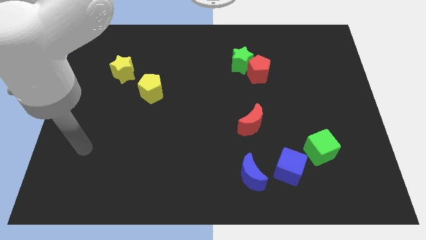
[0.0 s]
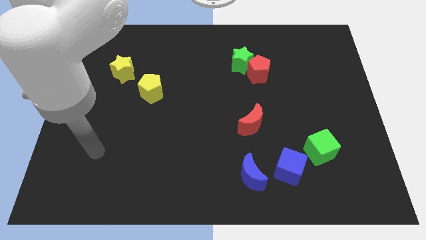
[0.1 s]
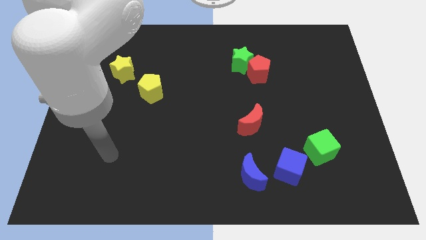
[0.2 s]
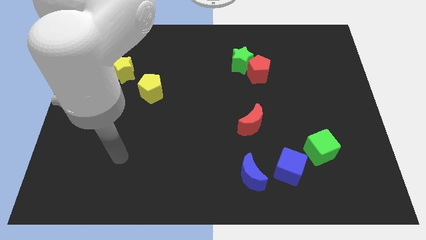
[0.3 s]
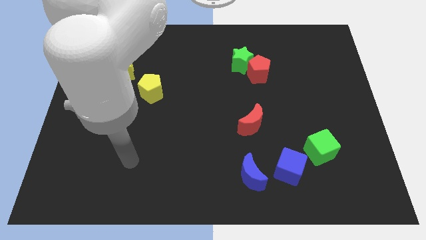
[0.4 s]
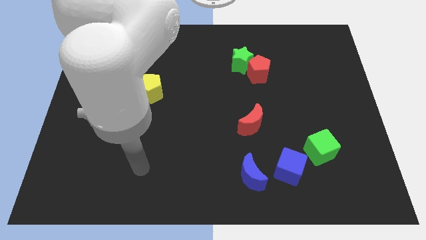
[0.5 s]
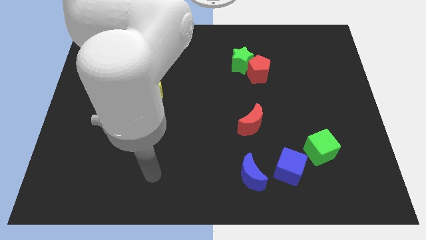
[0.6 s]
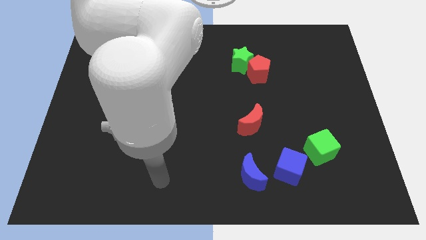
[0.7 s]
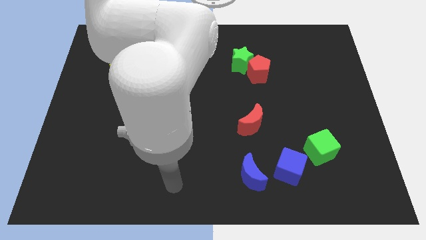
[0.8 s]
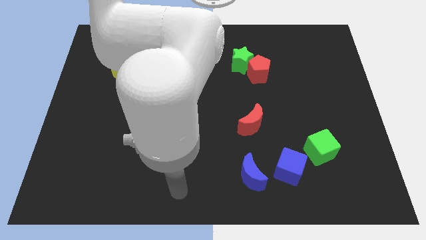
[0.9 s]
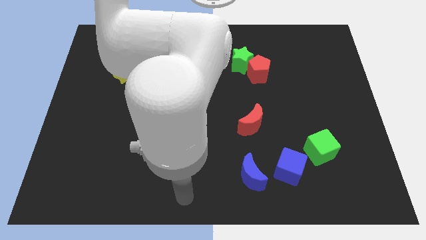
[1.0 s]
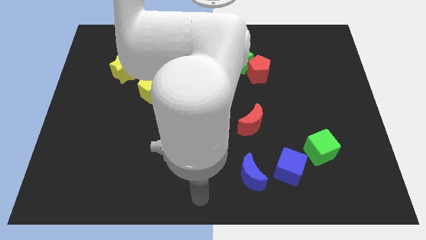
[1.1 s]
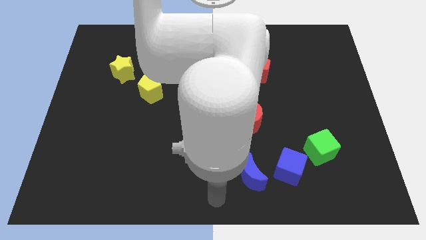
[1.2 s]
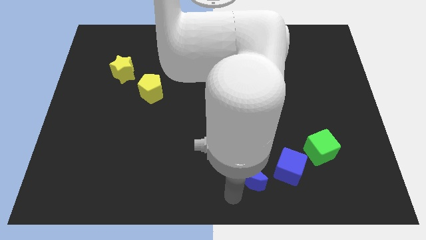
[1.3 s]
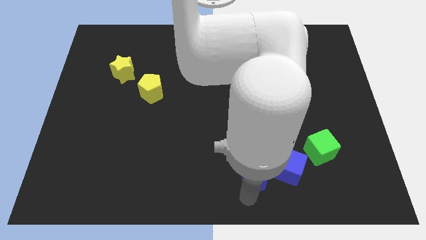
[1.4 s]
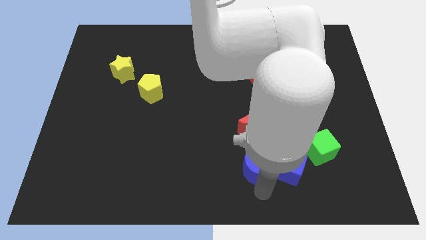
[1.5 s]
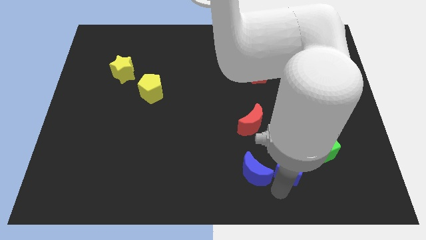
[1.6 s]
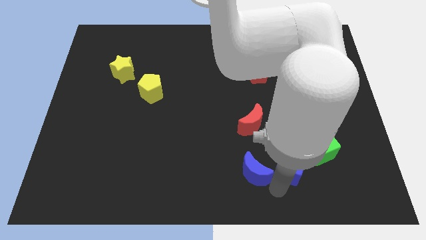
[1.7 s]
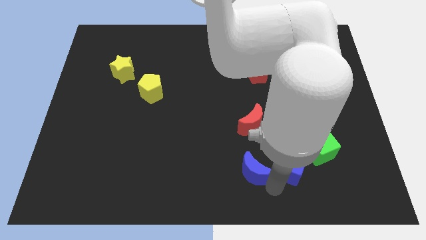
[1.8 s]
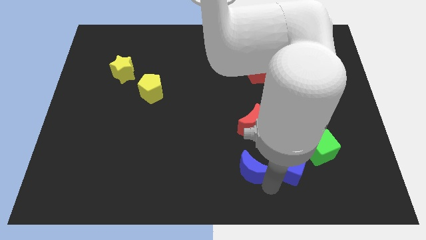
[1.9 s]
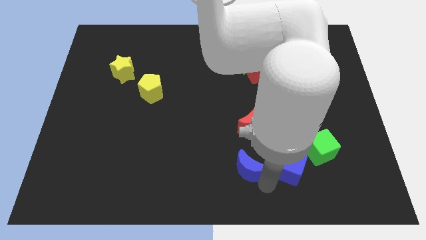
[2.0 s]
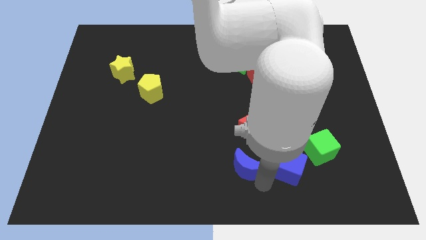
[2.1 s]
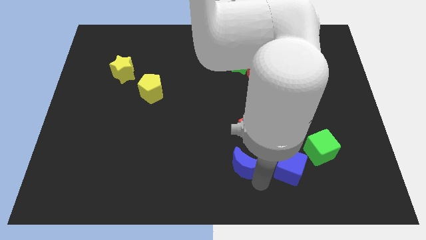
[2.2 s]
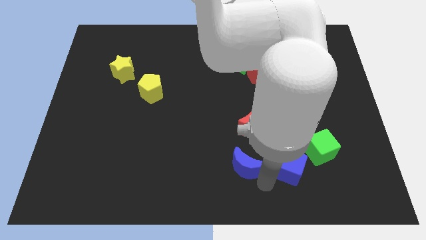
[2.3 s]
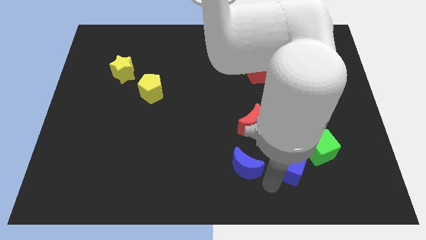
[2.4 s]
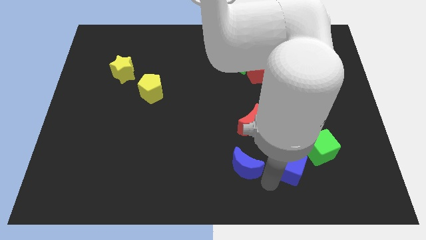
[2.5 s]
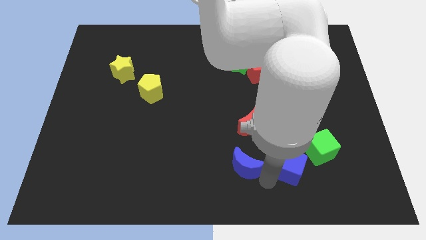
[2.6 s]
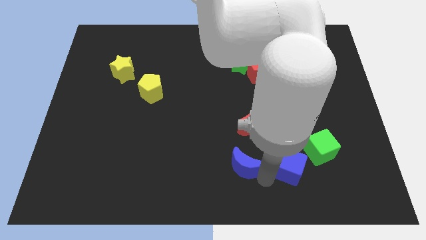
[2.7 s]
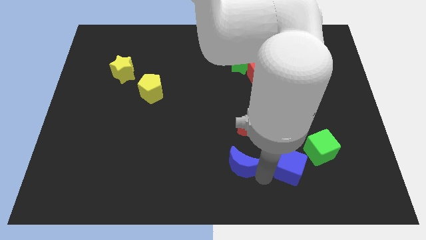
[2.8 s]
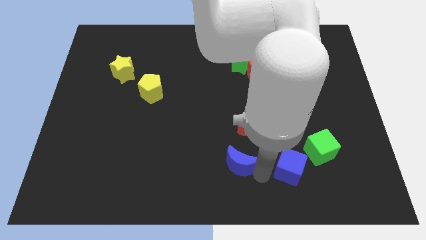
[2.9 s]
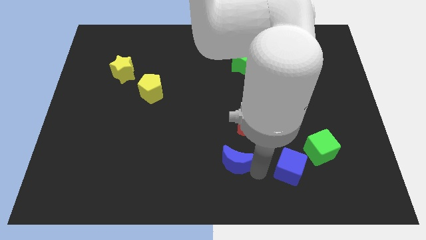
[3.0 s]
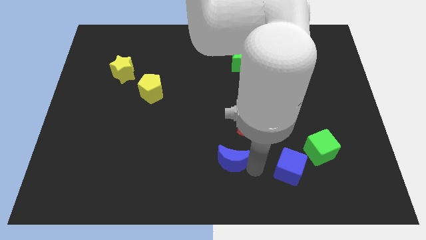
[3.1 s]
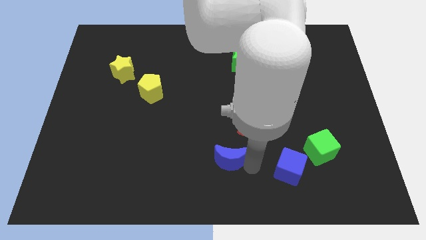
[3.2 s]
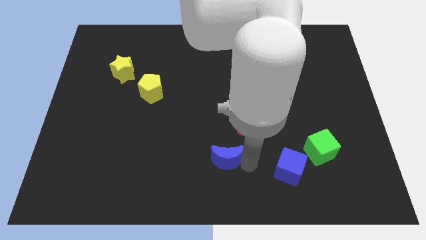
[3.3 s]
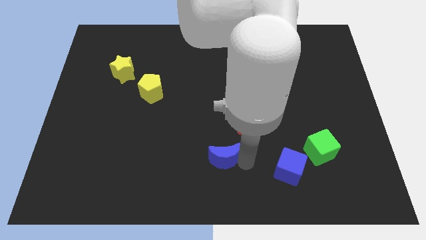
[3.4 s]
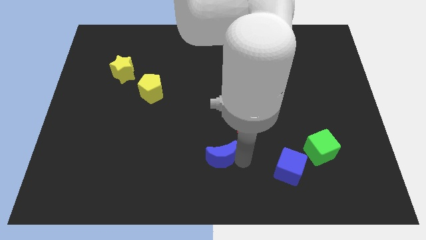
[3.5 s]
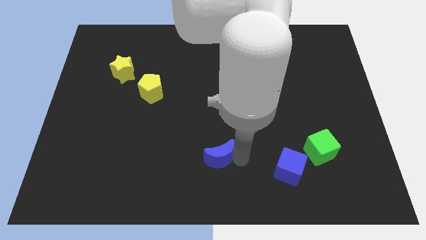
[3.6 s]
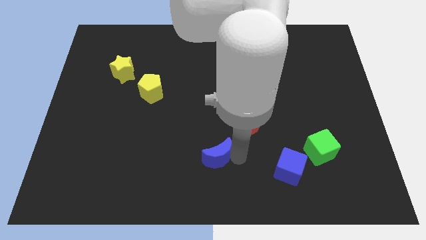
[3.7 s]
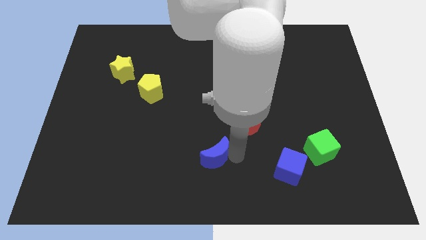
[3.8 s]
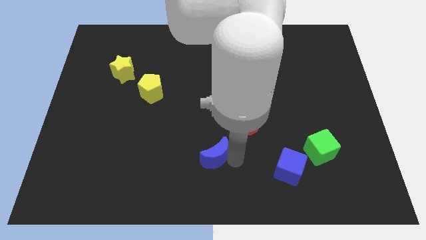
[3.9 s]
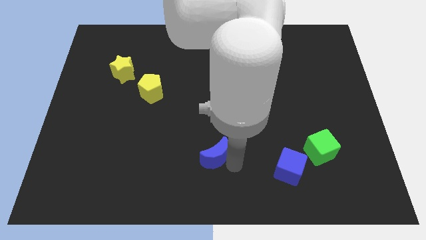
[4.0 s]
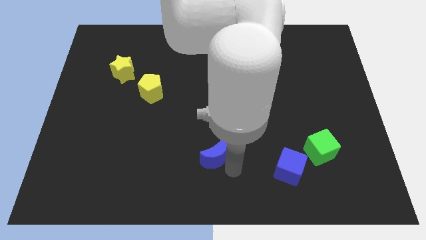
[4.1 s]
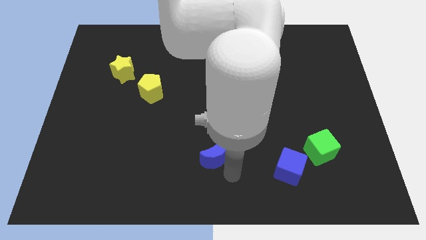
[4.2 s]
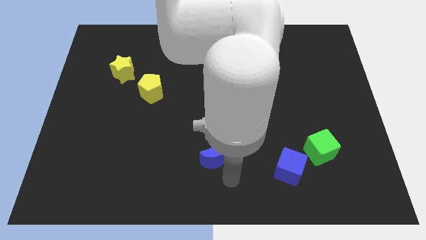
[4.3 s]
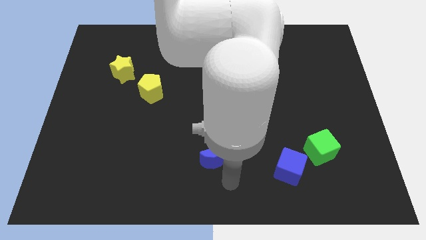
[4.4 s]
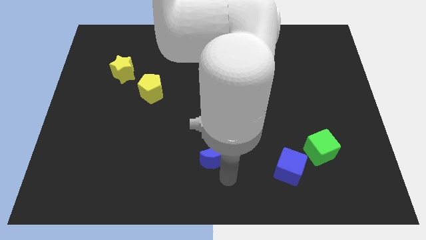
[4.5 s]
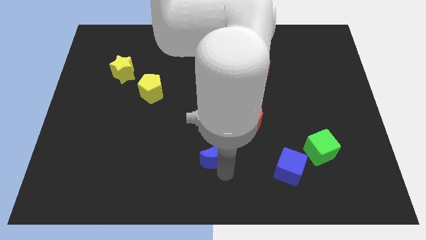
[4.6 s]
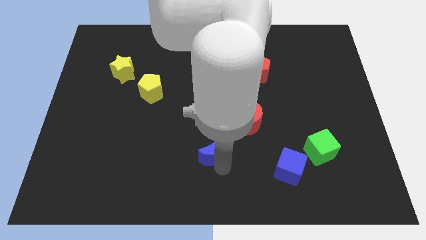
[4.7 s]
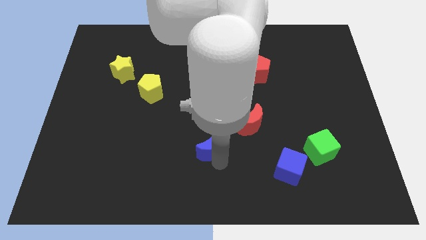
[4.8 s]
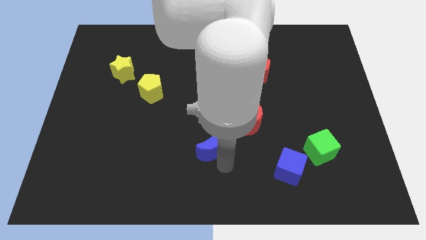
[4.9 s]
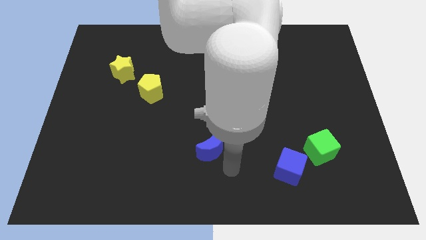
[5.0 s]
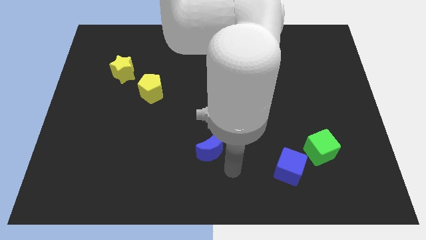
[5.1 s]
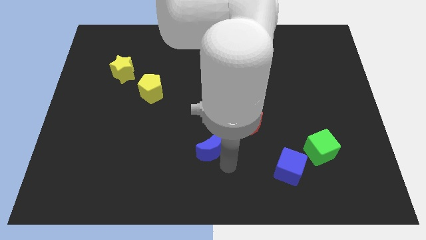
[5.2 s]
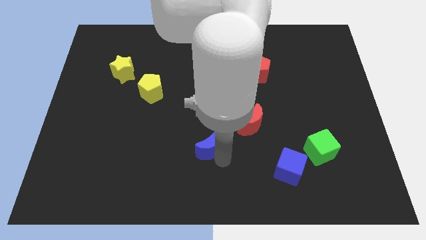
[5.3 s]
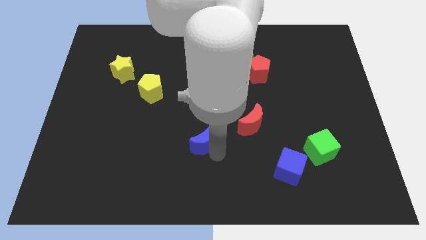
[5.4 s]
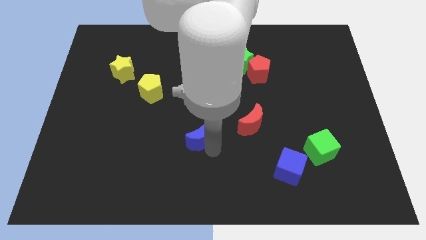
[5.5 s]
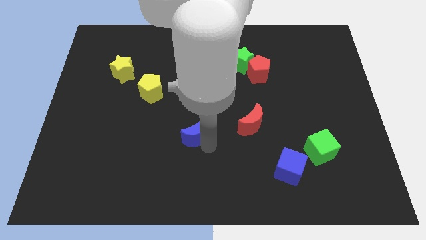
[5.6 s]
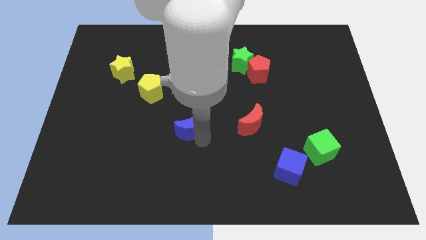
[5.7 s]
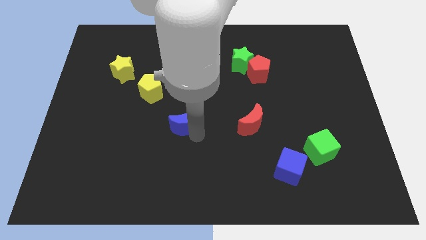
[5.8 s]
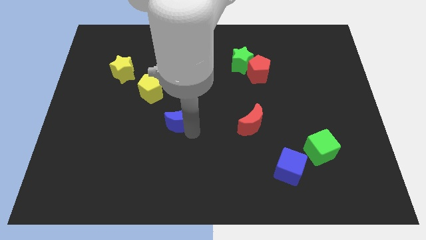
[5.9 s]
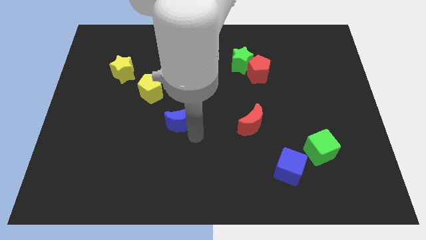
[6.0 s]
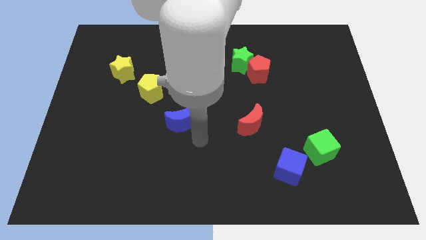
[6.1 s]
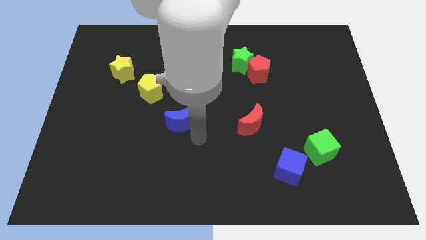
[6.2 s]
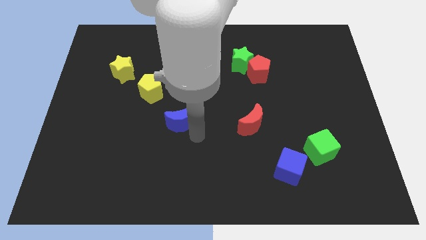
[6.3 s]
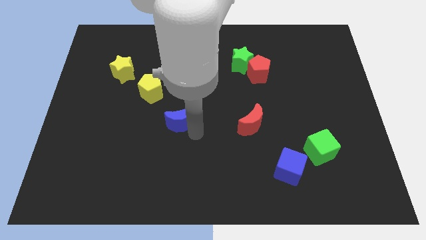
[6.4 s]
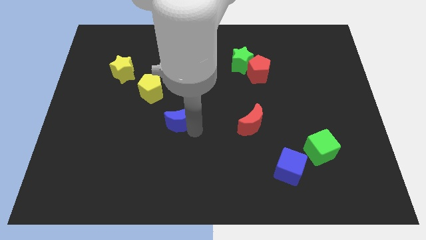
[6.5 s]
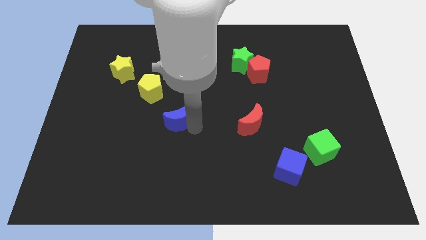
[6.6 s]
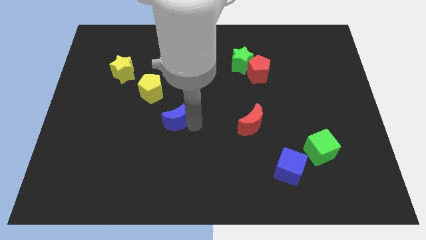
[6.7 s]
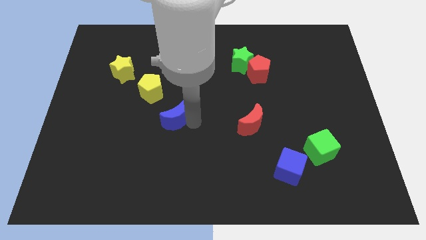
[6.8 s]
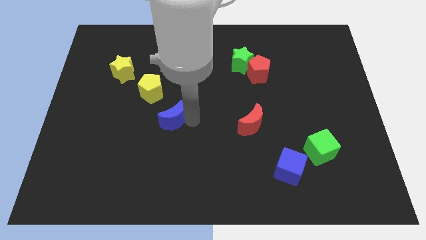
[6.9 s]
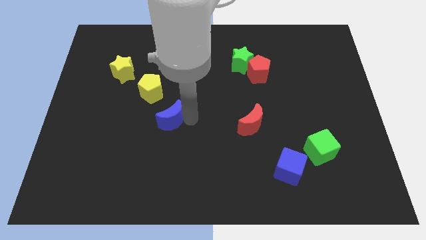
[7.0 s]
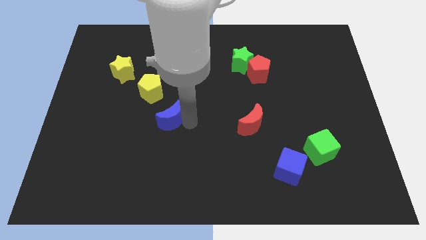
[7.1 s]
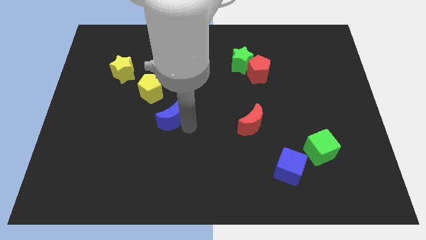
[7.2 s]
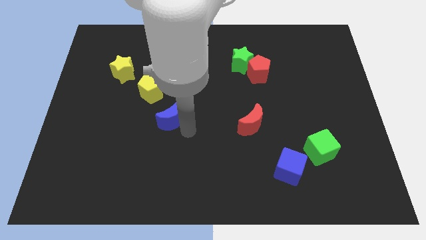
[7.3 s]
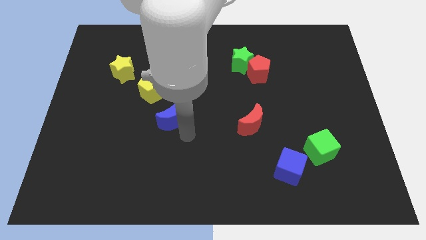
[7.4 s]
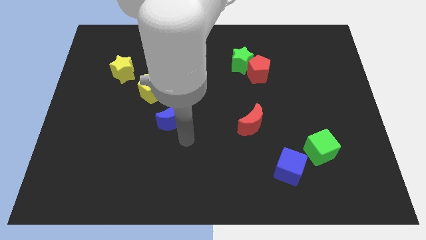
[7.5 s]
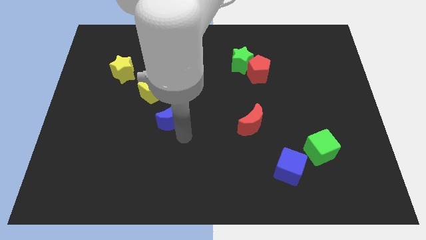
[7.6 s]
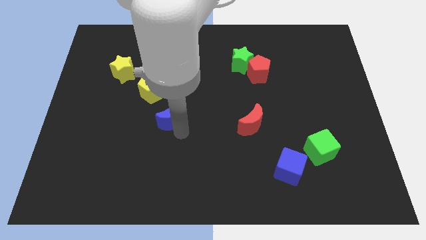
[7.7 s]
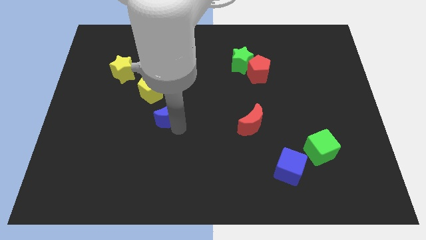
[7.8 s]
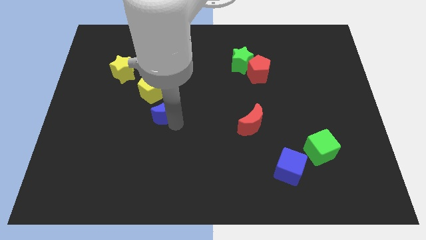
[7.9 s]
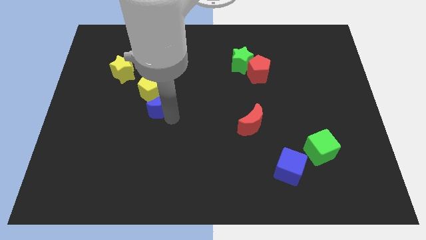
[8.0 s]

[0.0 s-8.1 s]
push the blue moon towards the yellow pentagon
